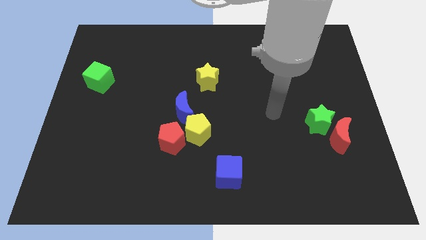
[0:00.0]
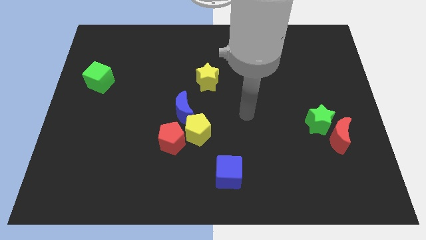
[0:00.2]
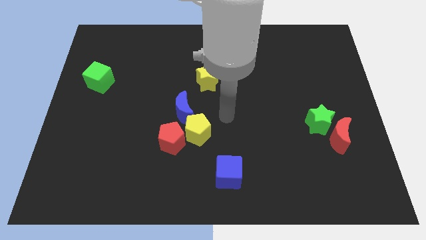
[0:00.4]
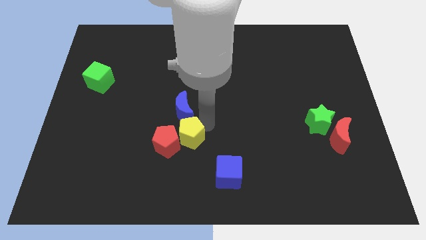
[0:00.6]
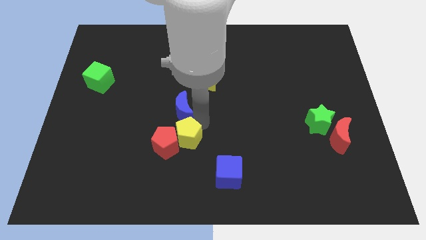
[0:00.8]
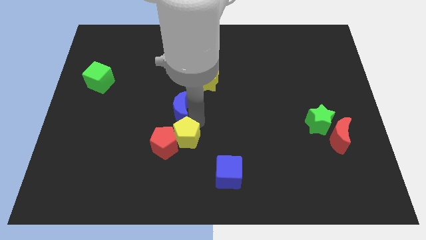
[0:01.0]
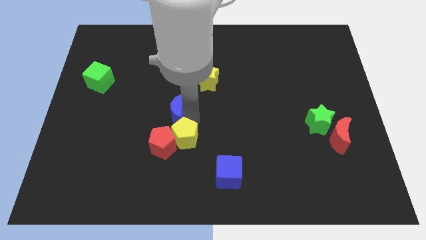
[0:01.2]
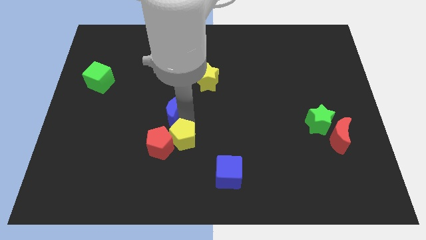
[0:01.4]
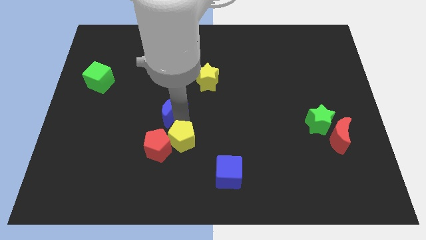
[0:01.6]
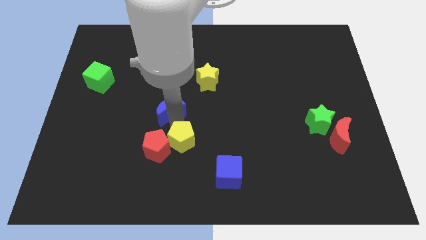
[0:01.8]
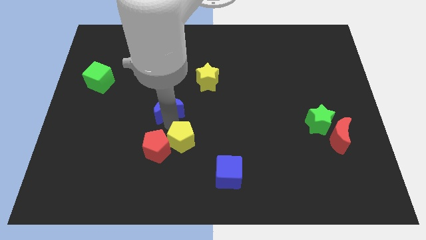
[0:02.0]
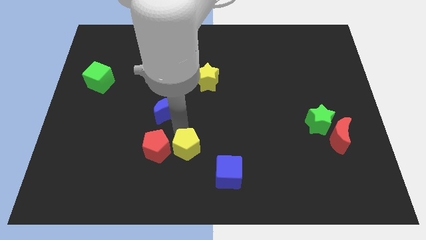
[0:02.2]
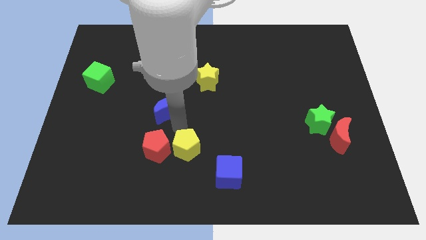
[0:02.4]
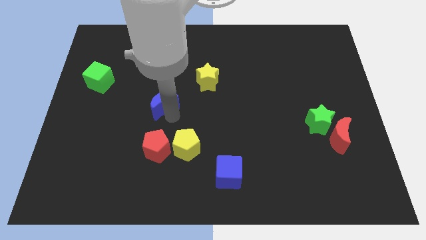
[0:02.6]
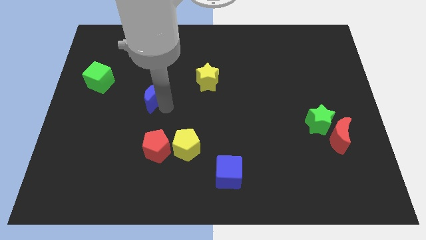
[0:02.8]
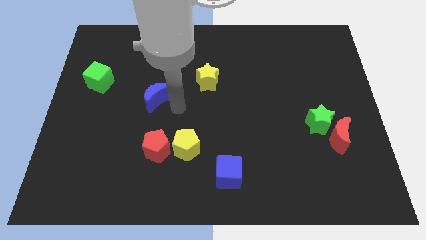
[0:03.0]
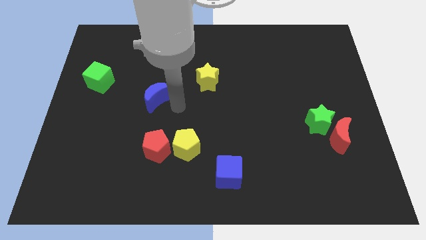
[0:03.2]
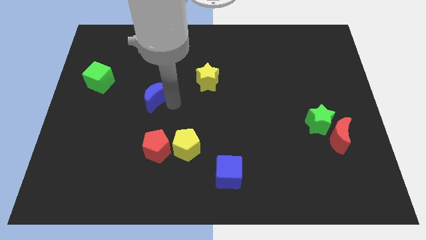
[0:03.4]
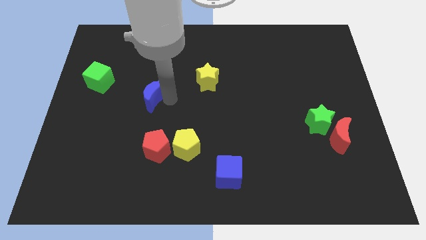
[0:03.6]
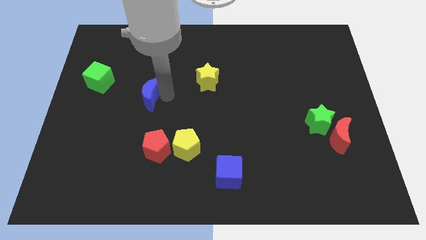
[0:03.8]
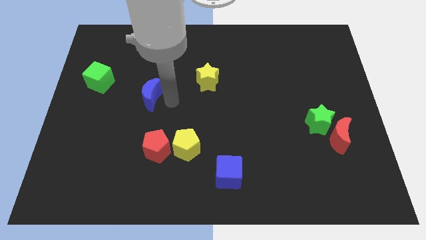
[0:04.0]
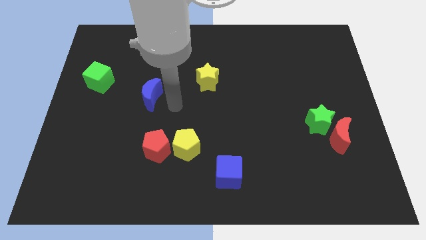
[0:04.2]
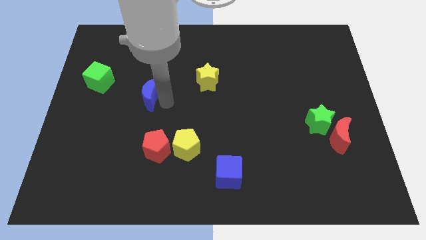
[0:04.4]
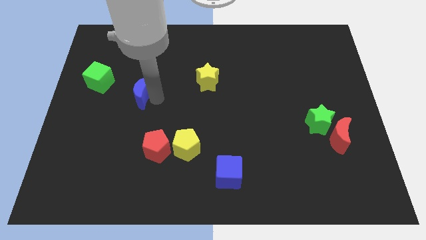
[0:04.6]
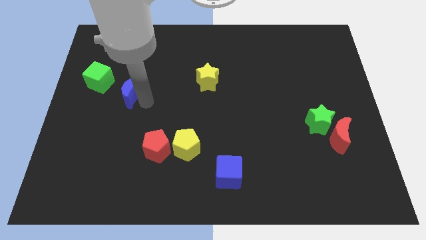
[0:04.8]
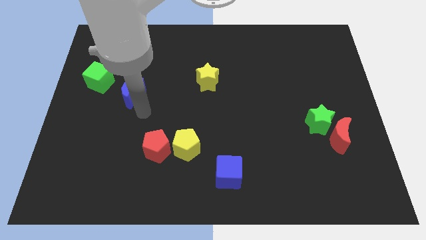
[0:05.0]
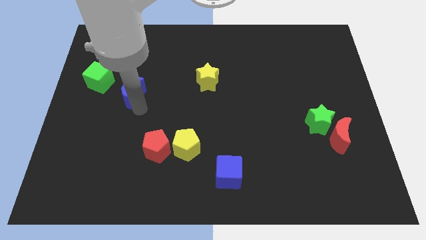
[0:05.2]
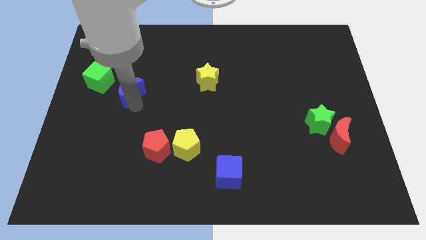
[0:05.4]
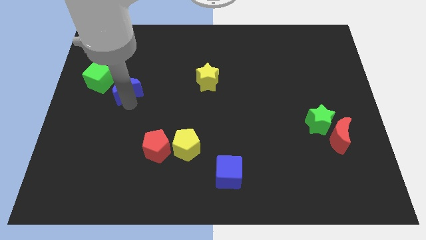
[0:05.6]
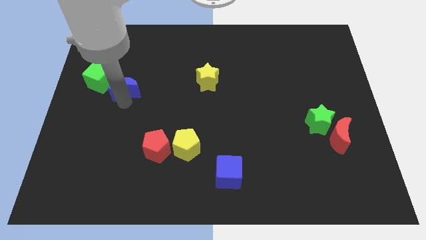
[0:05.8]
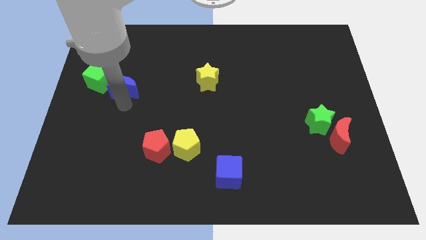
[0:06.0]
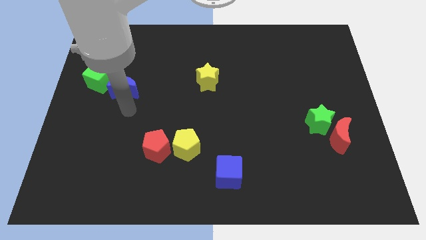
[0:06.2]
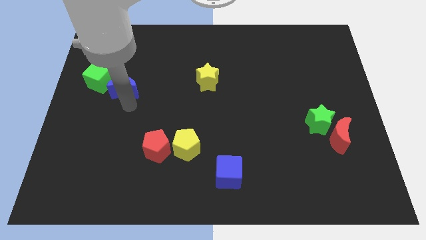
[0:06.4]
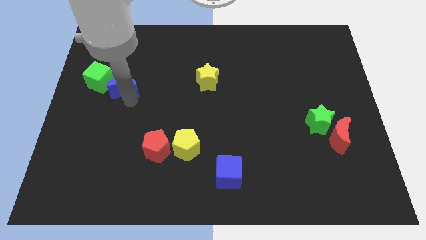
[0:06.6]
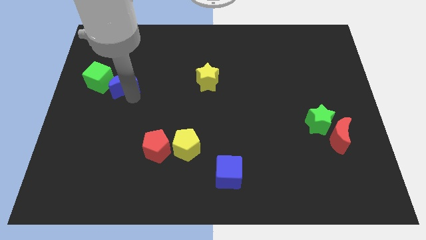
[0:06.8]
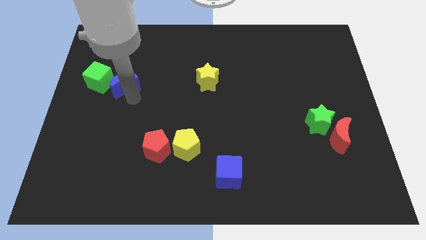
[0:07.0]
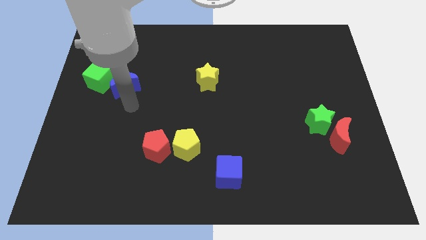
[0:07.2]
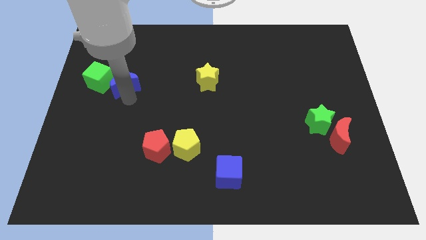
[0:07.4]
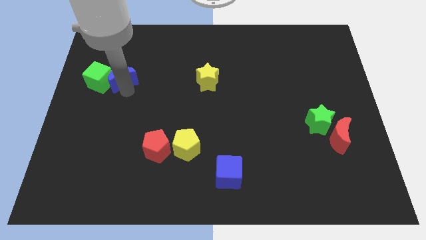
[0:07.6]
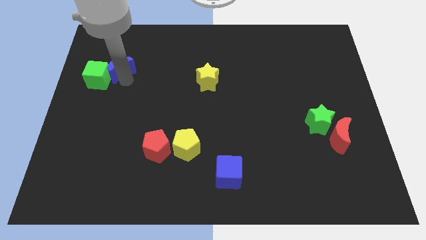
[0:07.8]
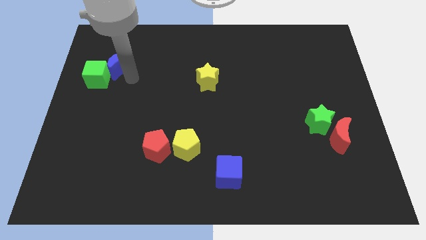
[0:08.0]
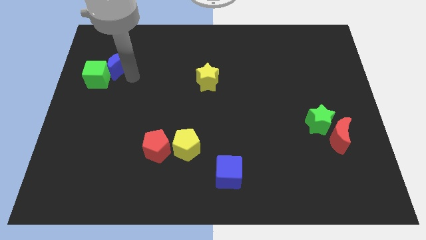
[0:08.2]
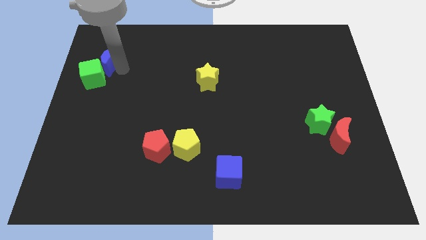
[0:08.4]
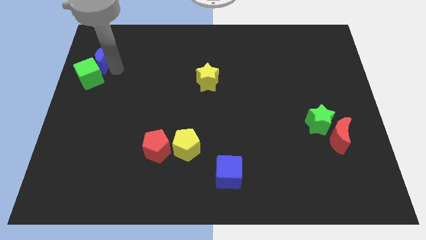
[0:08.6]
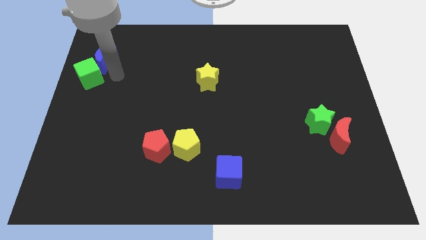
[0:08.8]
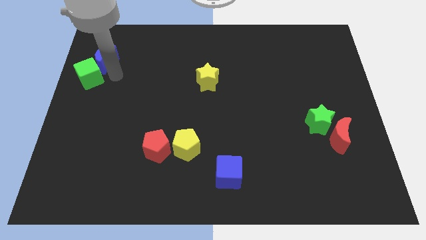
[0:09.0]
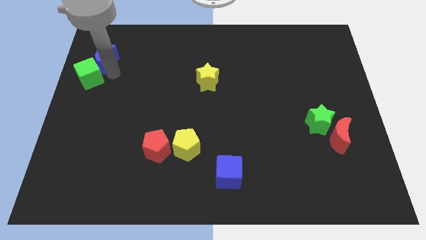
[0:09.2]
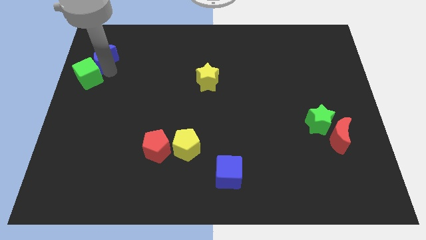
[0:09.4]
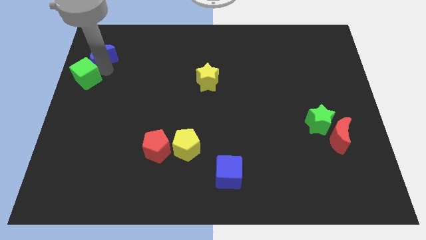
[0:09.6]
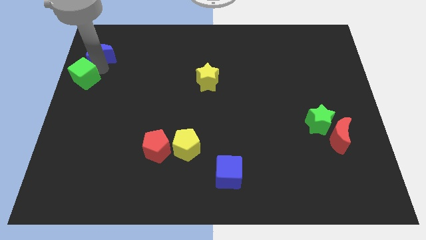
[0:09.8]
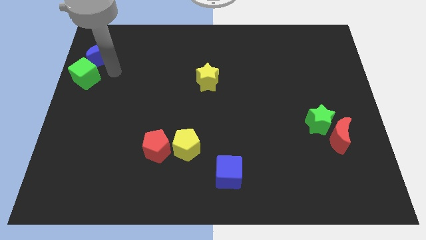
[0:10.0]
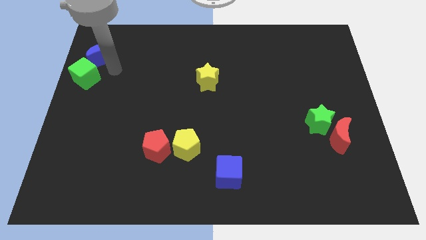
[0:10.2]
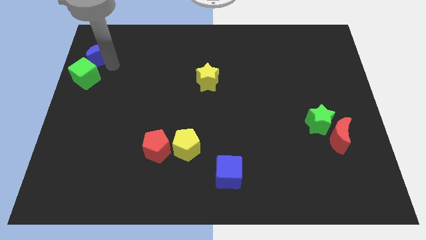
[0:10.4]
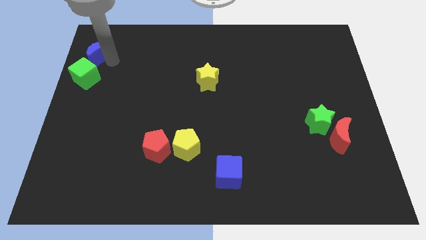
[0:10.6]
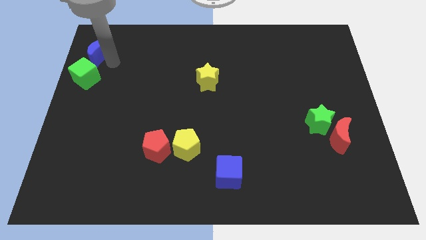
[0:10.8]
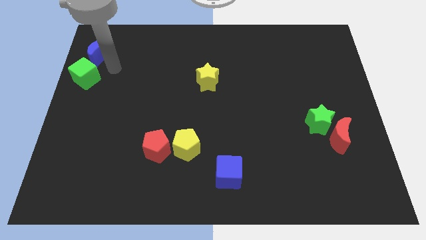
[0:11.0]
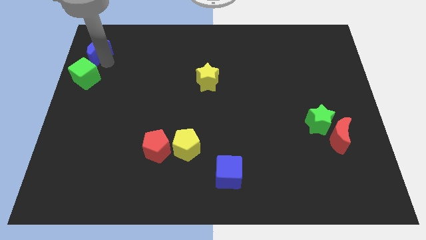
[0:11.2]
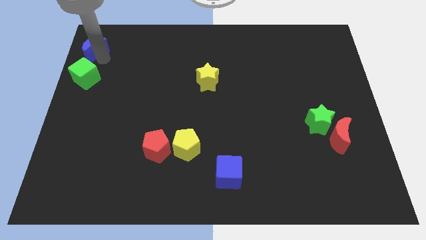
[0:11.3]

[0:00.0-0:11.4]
slide the blue moon to the top left corner

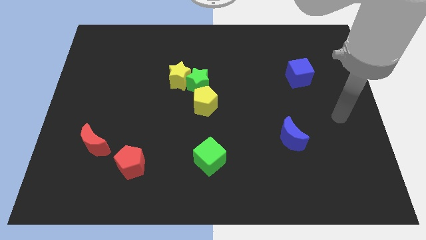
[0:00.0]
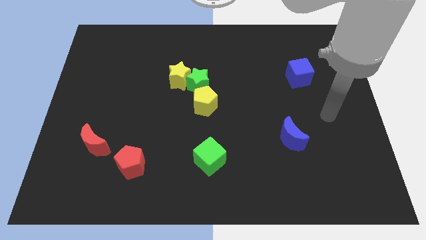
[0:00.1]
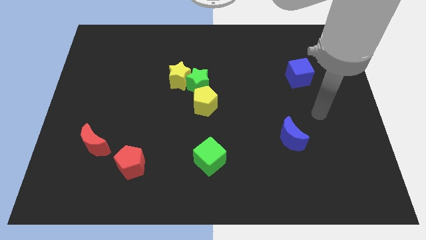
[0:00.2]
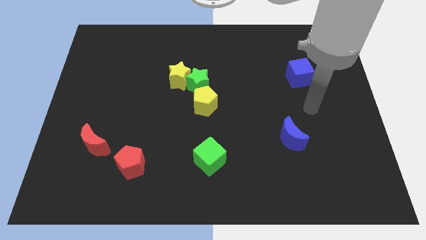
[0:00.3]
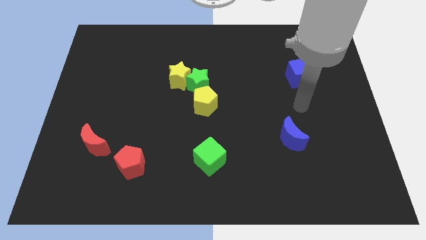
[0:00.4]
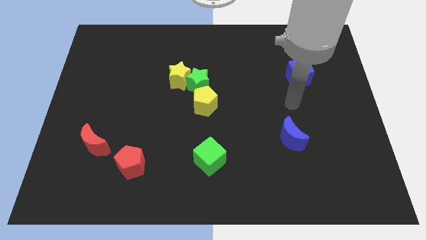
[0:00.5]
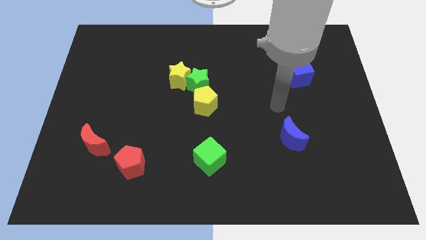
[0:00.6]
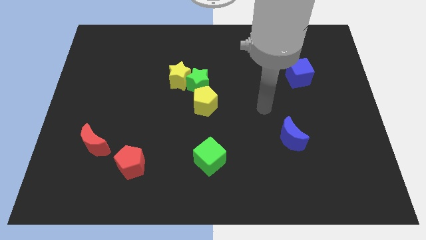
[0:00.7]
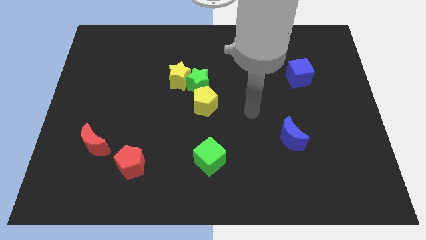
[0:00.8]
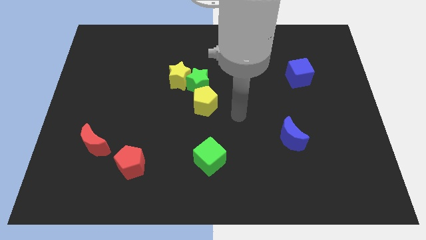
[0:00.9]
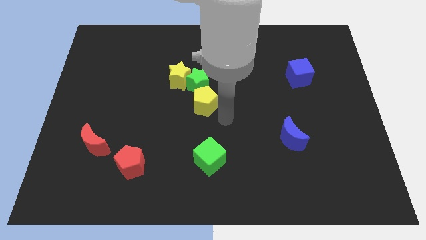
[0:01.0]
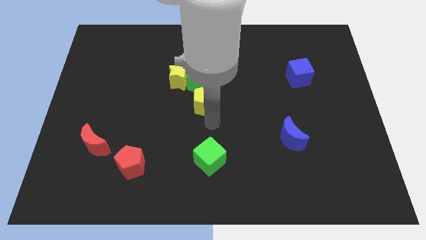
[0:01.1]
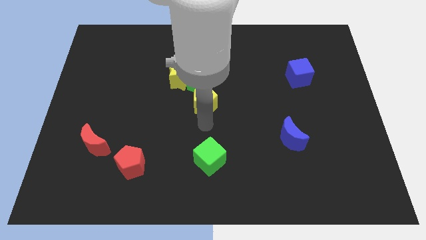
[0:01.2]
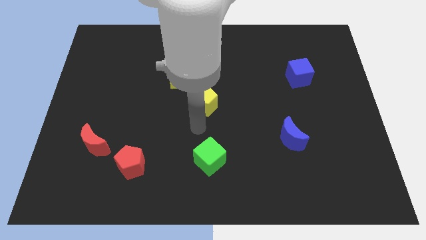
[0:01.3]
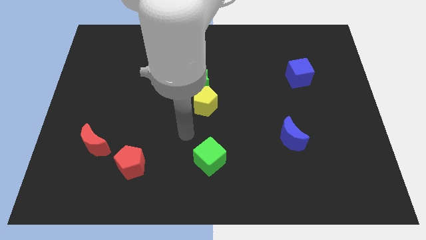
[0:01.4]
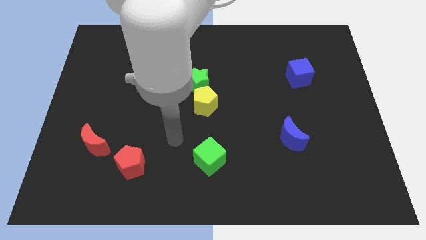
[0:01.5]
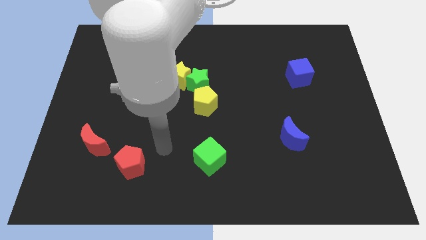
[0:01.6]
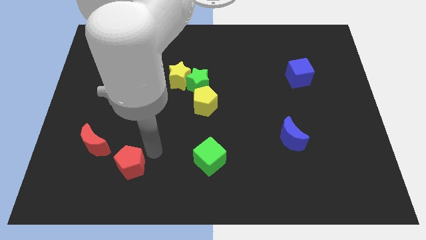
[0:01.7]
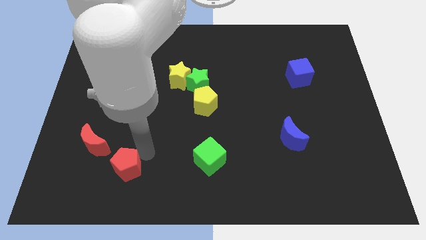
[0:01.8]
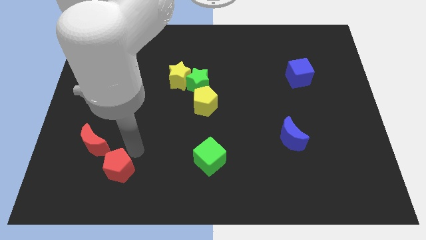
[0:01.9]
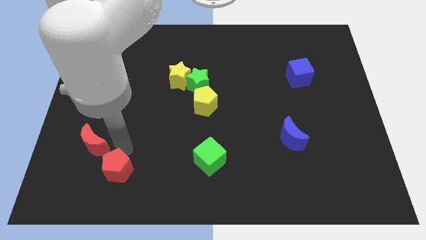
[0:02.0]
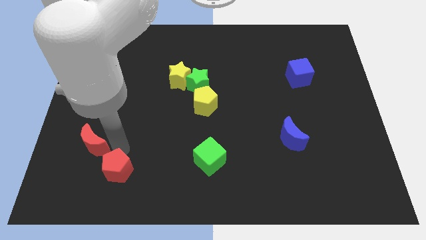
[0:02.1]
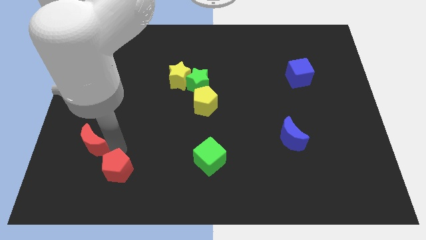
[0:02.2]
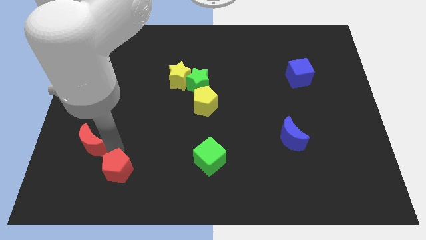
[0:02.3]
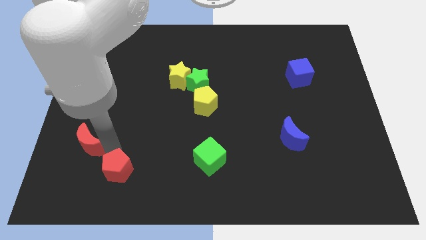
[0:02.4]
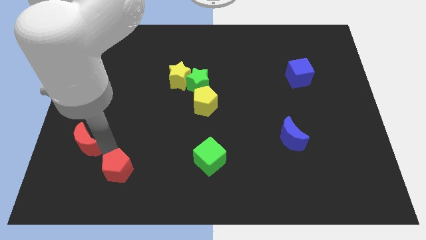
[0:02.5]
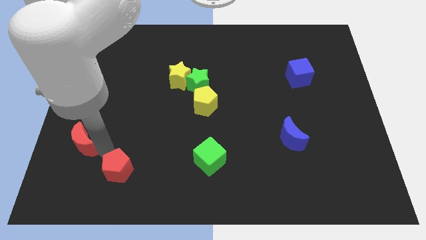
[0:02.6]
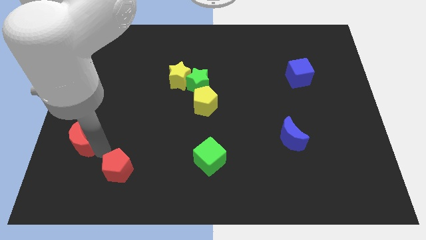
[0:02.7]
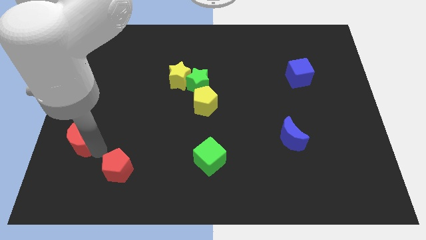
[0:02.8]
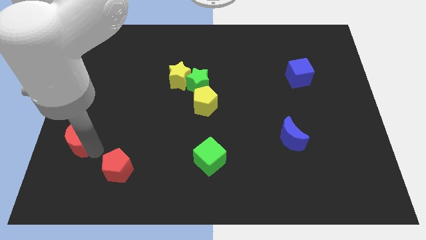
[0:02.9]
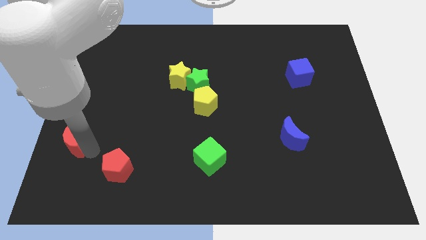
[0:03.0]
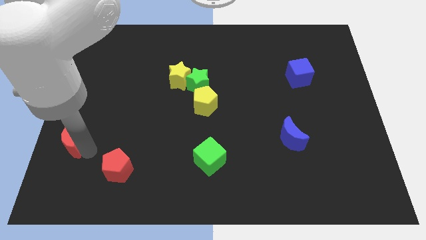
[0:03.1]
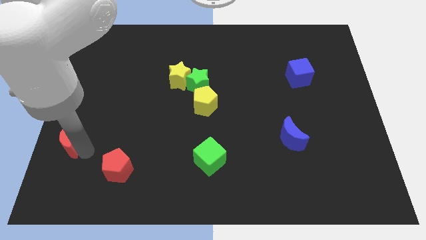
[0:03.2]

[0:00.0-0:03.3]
slide the red moon to the center left
